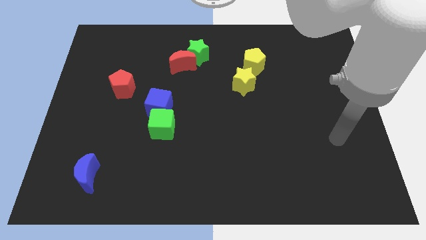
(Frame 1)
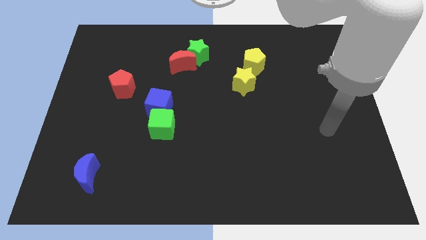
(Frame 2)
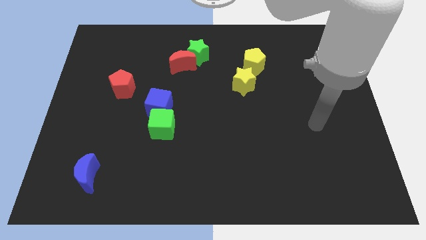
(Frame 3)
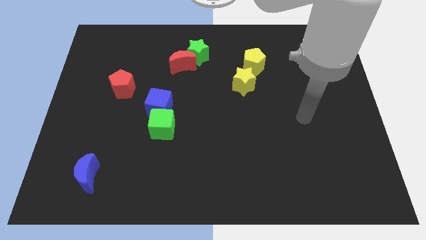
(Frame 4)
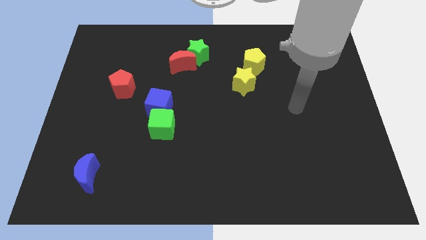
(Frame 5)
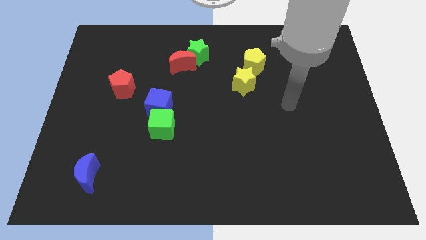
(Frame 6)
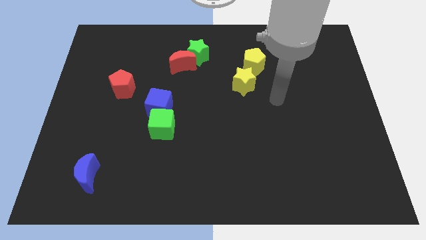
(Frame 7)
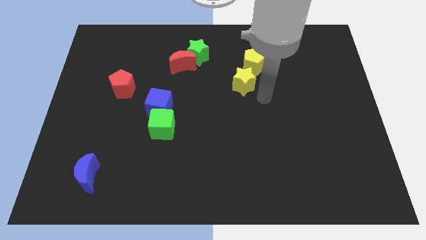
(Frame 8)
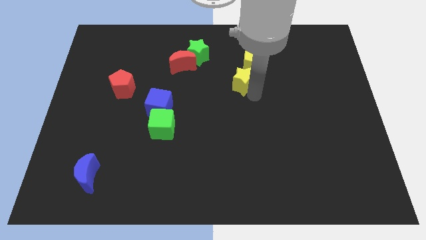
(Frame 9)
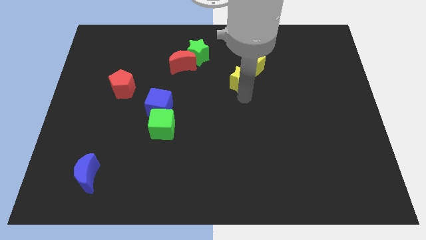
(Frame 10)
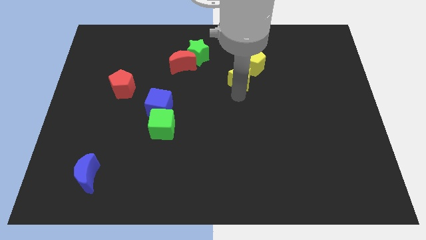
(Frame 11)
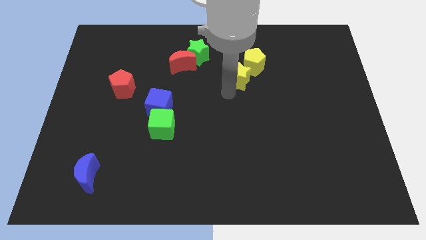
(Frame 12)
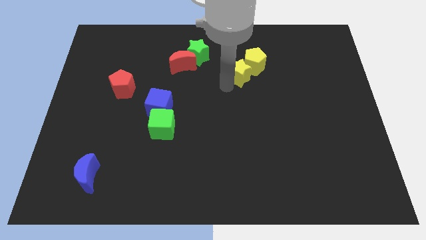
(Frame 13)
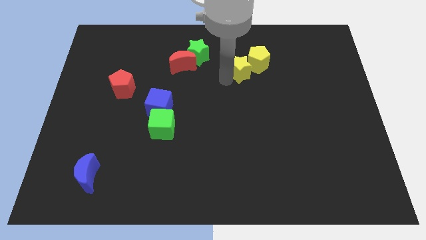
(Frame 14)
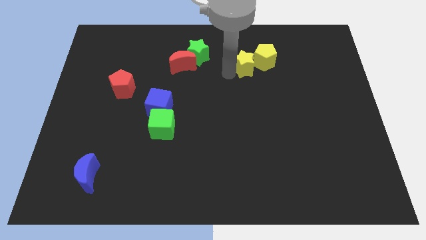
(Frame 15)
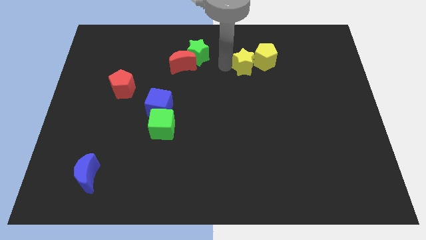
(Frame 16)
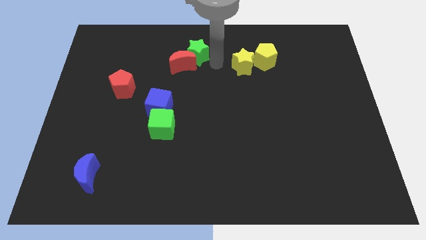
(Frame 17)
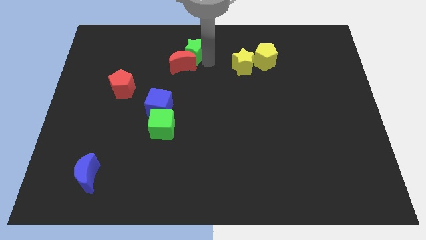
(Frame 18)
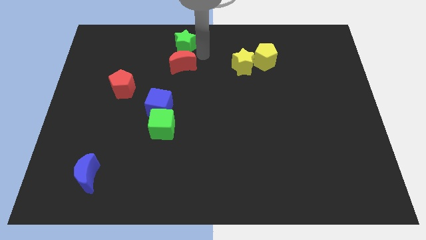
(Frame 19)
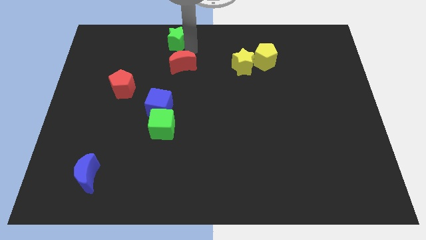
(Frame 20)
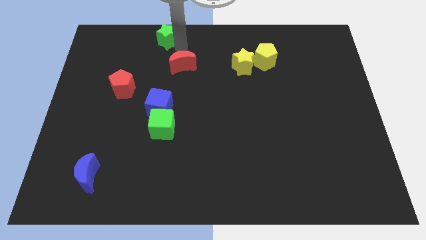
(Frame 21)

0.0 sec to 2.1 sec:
move the red moon away from the green star

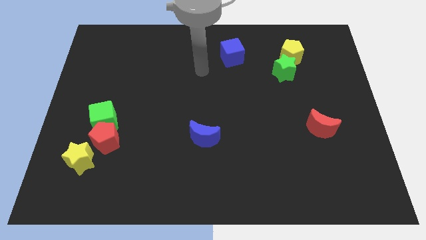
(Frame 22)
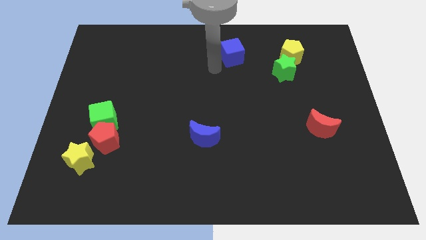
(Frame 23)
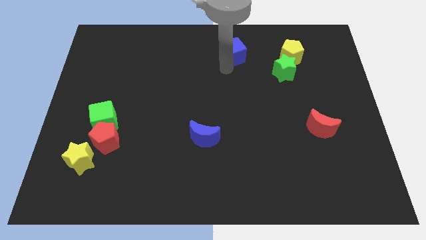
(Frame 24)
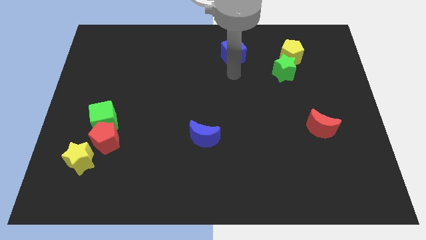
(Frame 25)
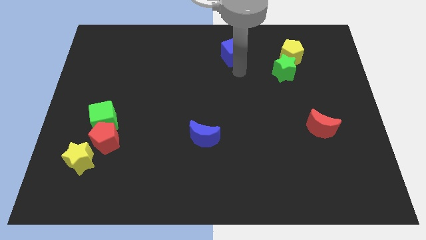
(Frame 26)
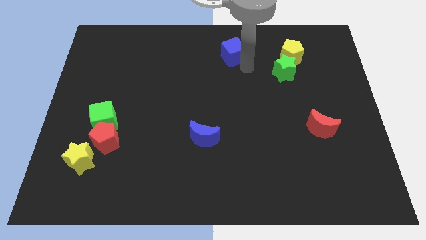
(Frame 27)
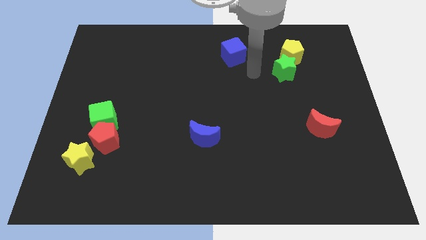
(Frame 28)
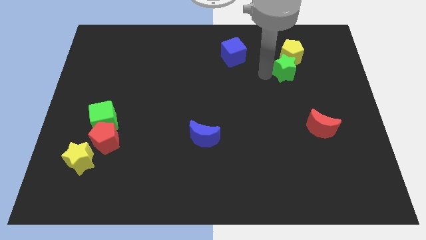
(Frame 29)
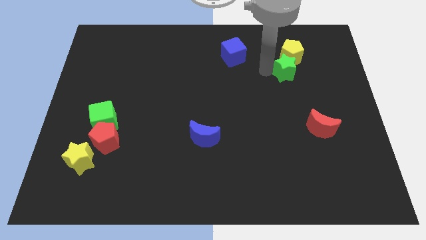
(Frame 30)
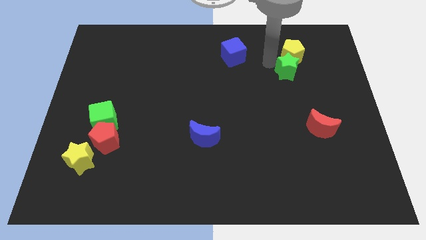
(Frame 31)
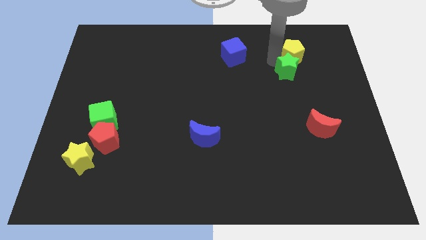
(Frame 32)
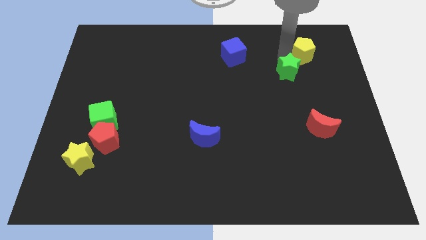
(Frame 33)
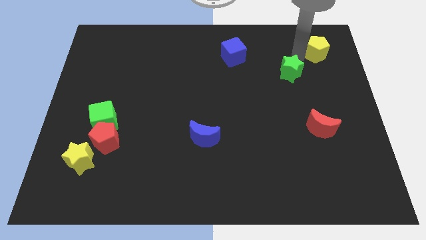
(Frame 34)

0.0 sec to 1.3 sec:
move the green star away from the yellow pentagon

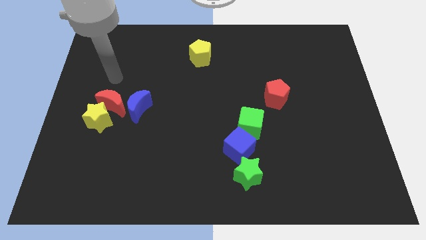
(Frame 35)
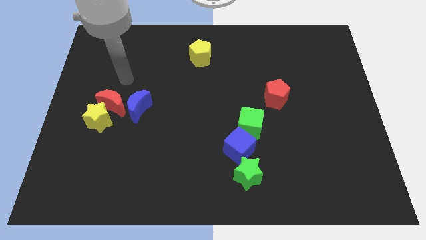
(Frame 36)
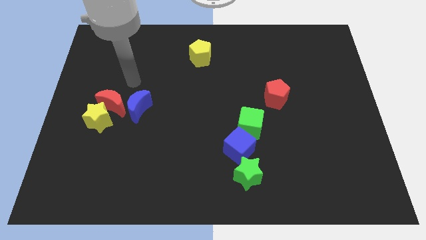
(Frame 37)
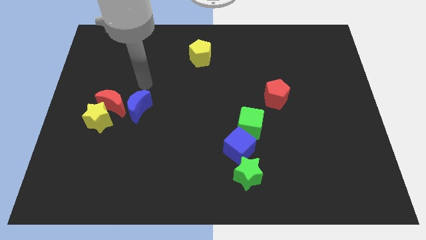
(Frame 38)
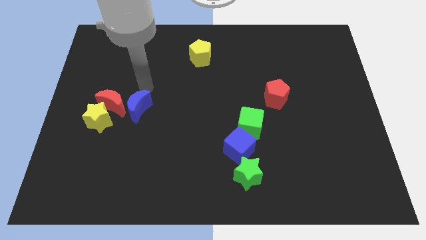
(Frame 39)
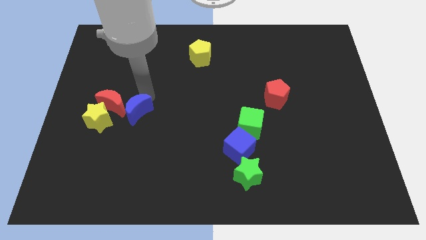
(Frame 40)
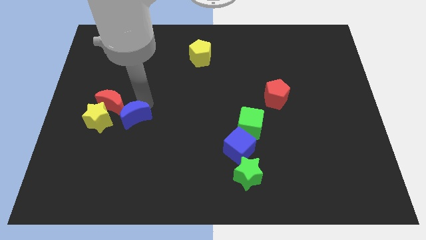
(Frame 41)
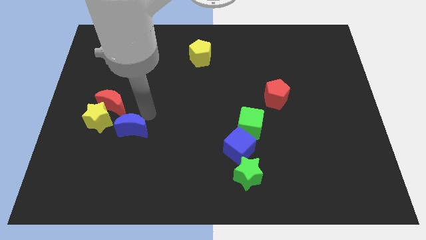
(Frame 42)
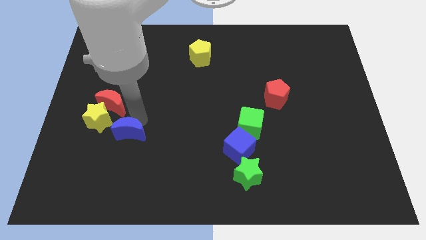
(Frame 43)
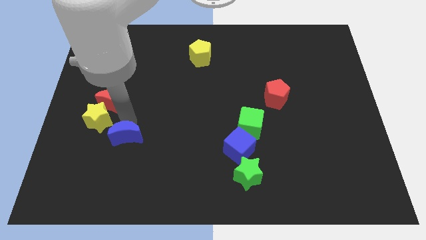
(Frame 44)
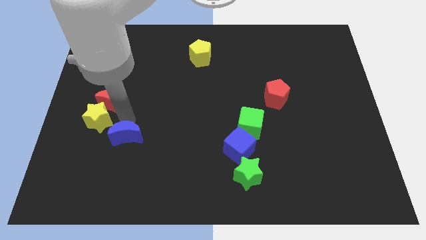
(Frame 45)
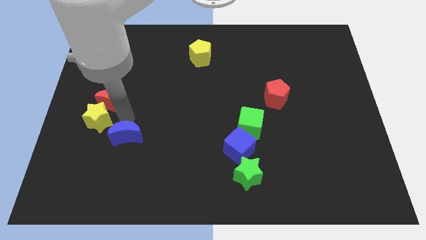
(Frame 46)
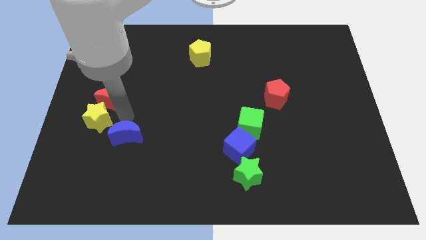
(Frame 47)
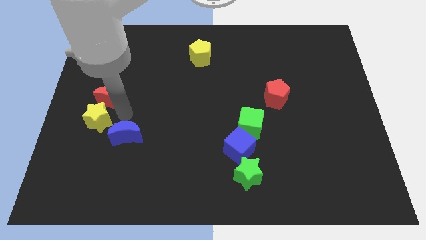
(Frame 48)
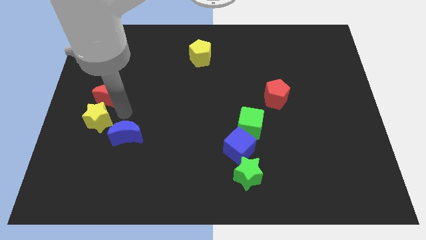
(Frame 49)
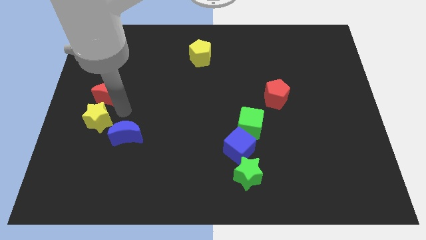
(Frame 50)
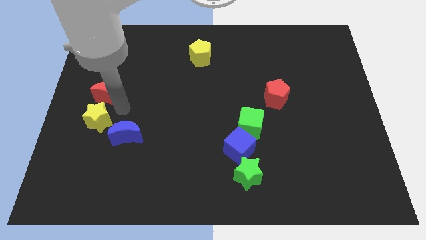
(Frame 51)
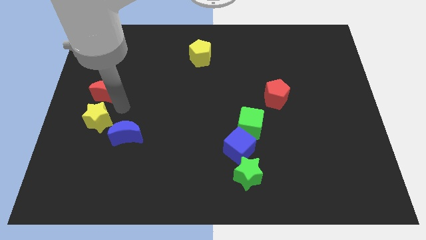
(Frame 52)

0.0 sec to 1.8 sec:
pull the red moon apart from the yellow star and blue moon

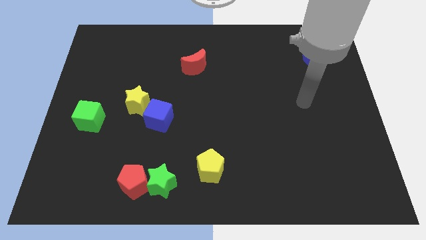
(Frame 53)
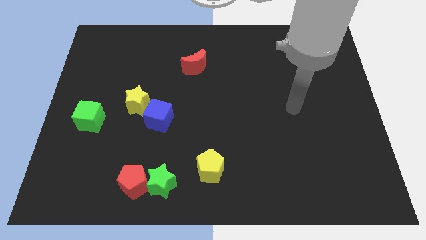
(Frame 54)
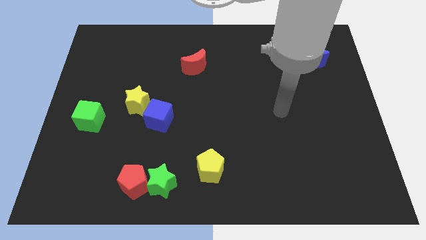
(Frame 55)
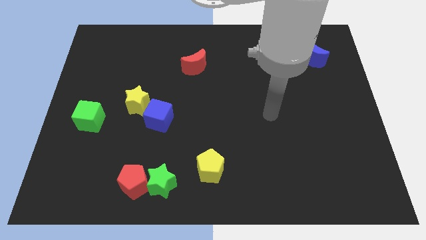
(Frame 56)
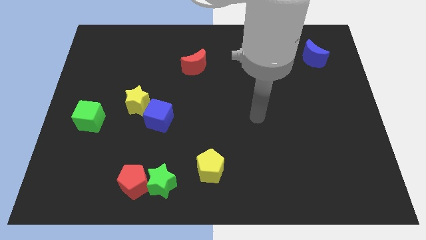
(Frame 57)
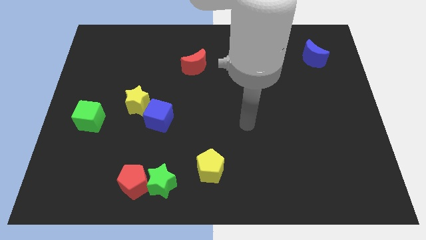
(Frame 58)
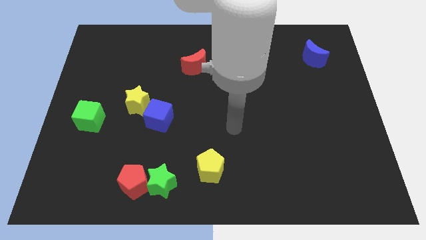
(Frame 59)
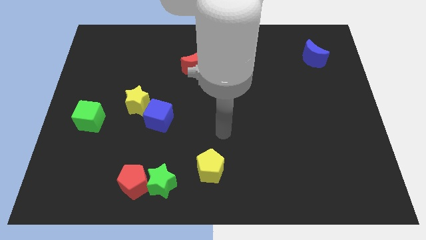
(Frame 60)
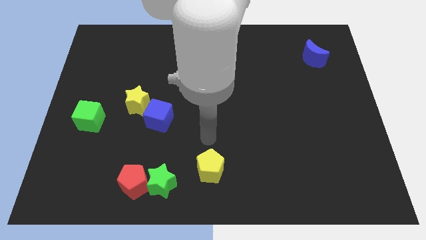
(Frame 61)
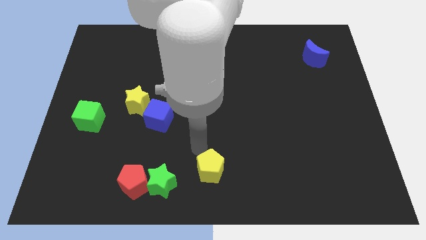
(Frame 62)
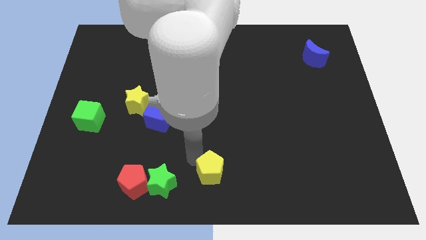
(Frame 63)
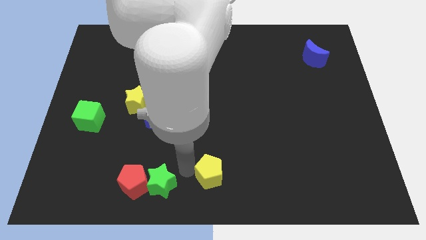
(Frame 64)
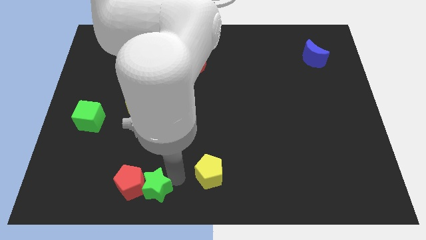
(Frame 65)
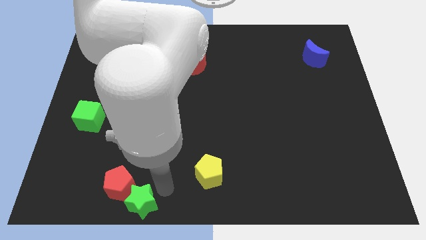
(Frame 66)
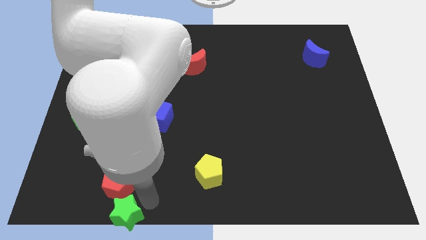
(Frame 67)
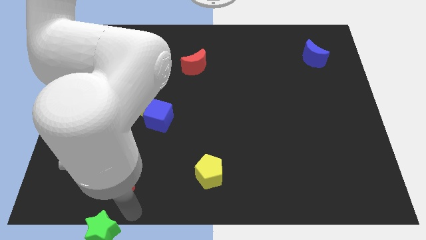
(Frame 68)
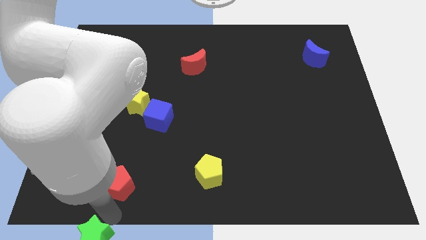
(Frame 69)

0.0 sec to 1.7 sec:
move the red pentagon away from the green star

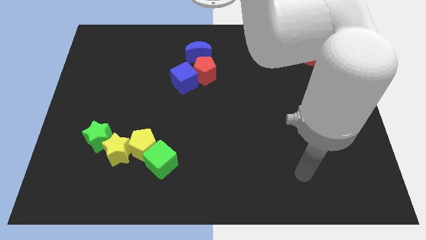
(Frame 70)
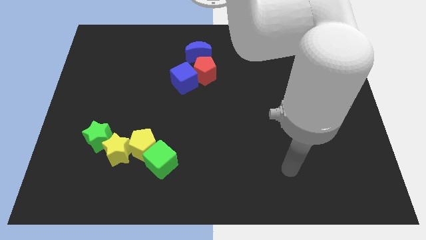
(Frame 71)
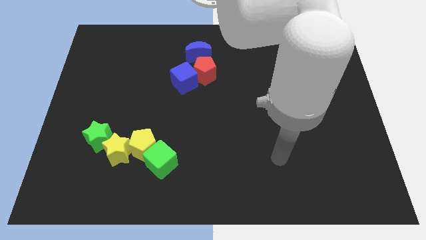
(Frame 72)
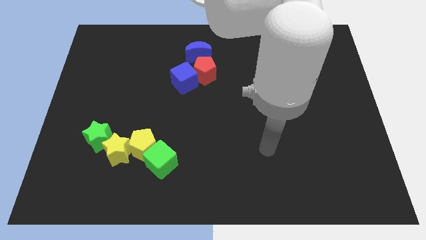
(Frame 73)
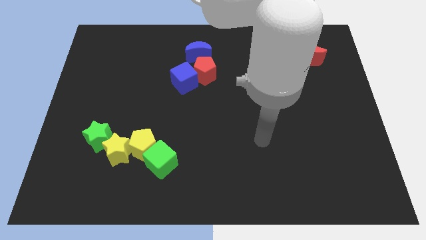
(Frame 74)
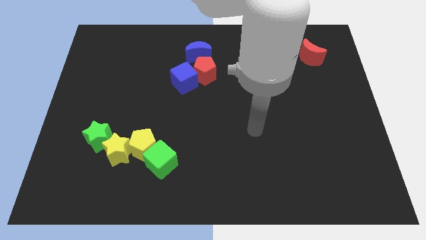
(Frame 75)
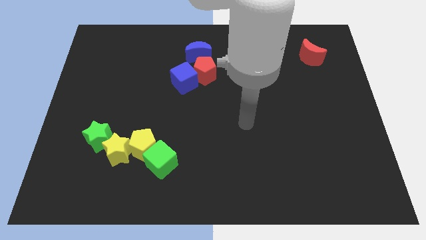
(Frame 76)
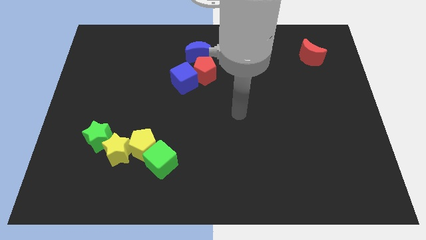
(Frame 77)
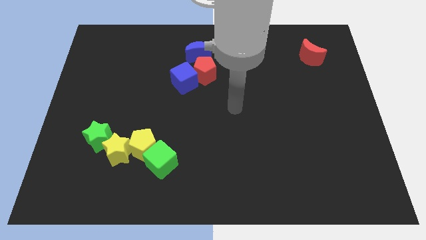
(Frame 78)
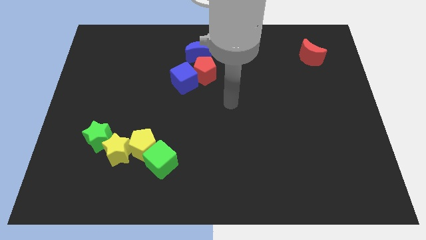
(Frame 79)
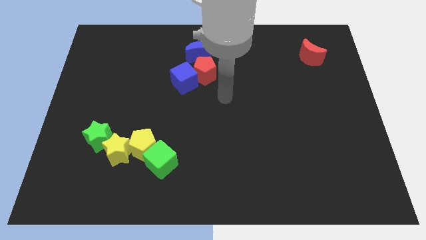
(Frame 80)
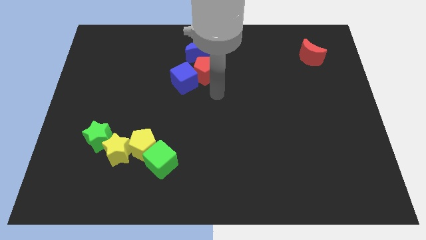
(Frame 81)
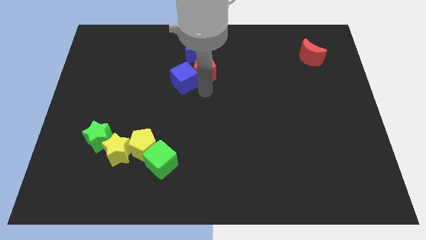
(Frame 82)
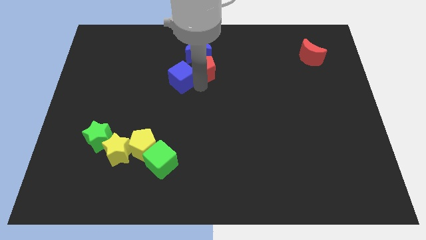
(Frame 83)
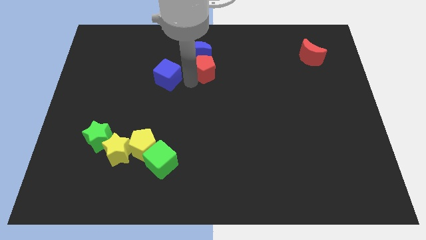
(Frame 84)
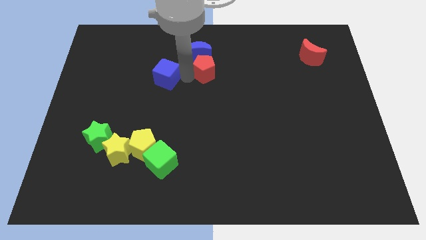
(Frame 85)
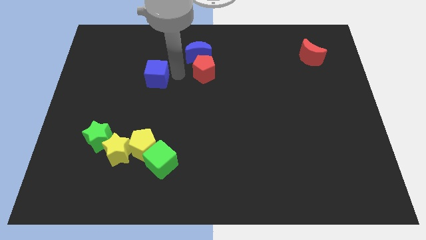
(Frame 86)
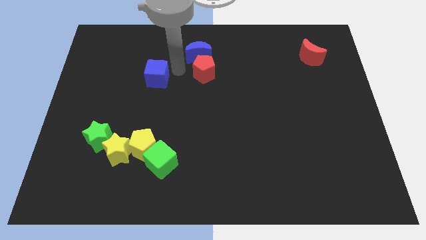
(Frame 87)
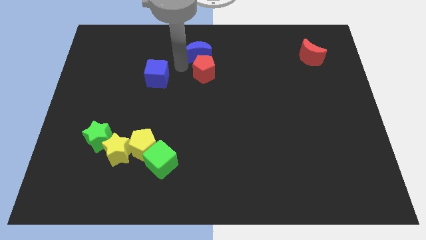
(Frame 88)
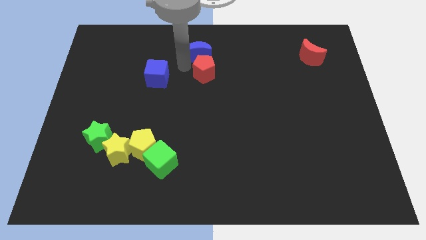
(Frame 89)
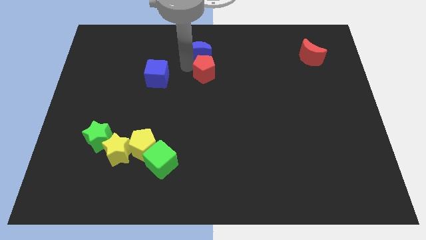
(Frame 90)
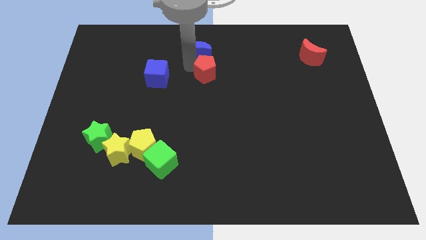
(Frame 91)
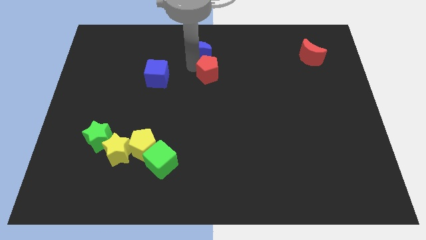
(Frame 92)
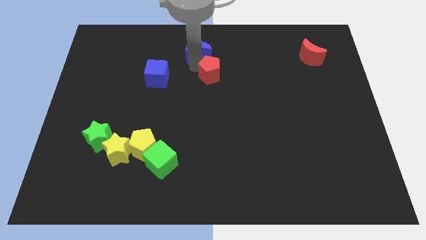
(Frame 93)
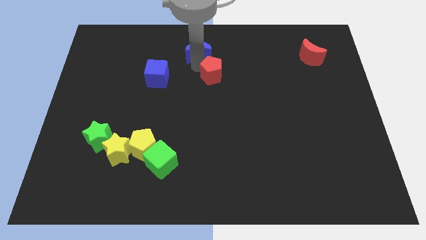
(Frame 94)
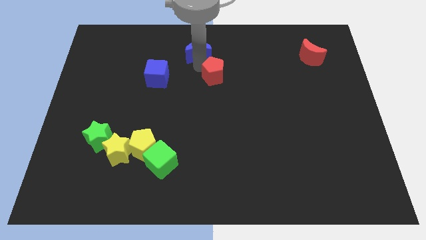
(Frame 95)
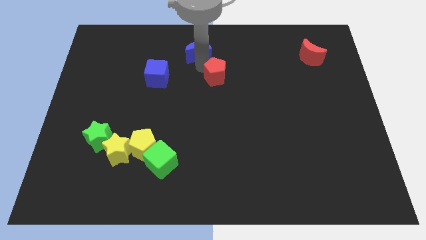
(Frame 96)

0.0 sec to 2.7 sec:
pull the red pentagon apart from the blue cube and blue moon
